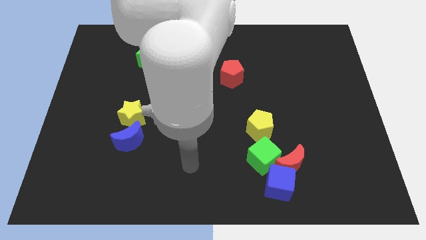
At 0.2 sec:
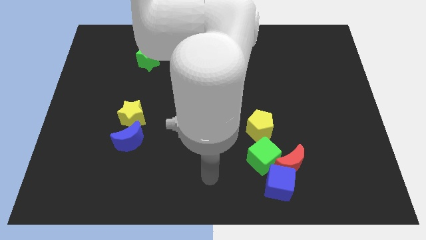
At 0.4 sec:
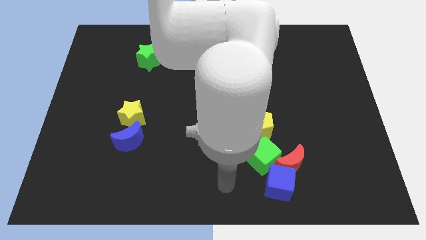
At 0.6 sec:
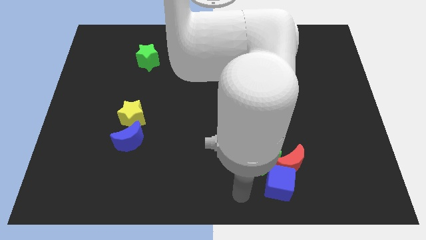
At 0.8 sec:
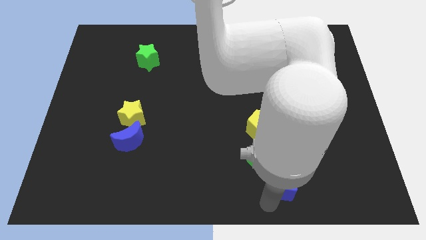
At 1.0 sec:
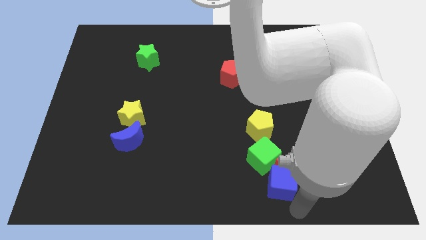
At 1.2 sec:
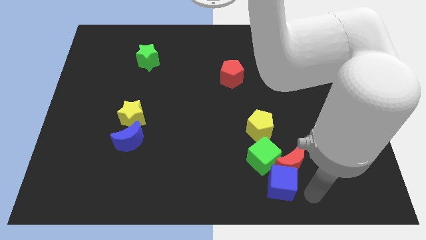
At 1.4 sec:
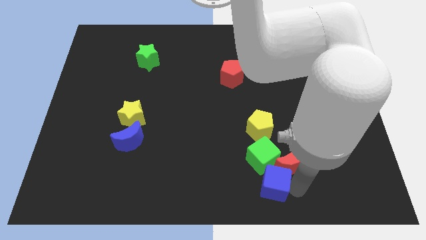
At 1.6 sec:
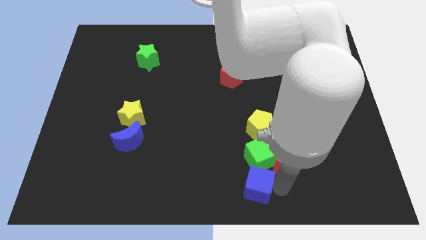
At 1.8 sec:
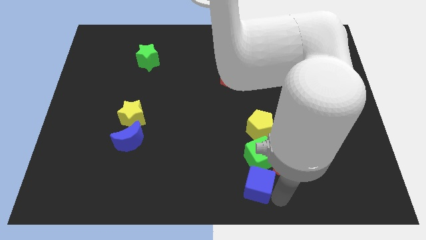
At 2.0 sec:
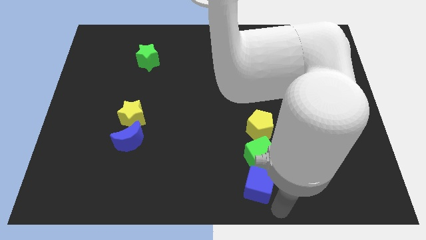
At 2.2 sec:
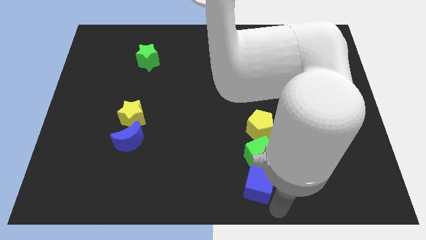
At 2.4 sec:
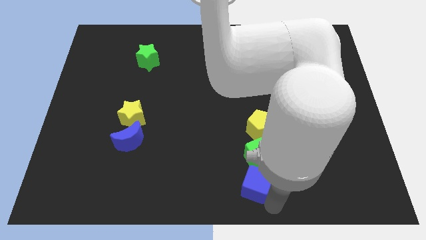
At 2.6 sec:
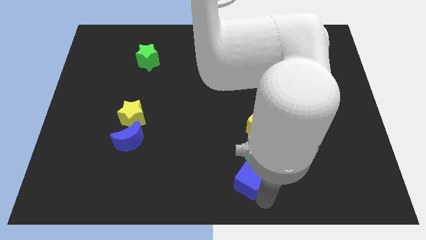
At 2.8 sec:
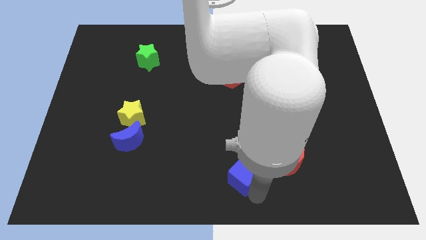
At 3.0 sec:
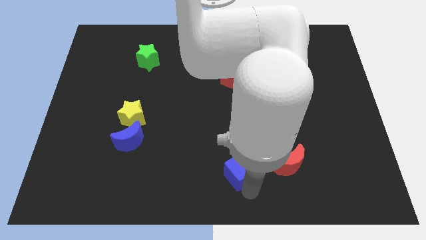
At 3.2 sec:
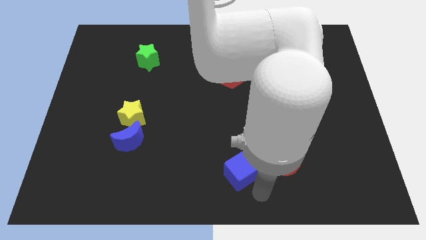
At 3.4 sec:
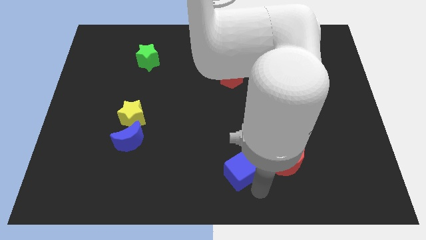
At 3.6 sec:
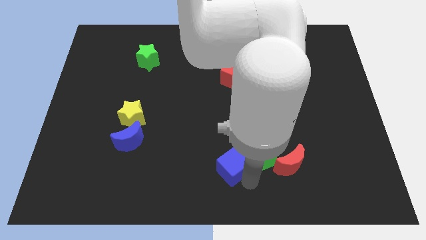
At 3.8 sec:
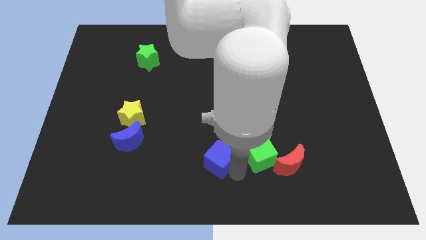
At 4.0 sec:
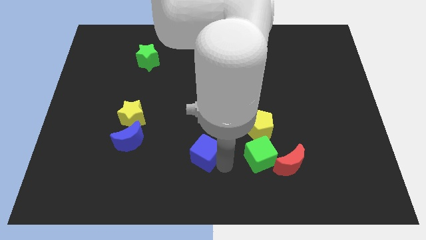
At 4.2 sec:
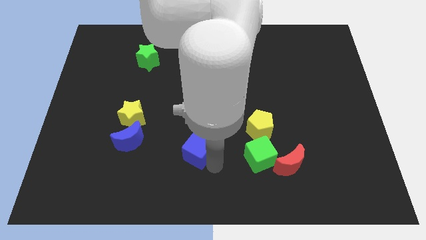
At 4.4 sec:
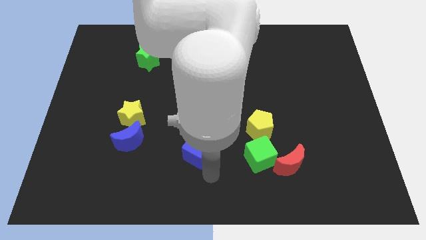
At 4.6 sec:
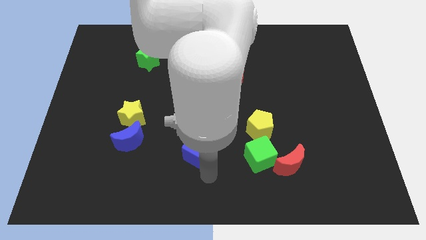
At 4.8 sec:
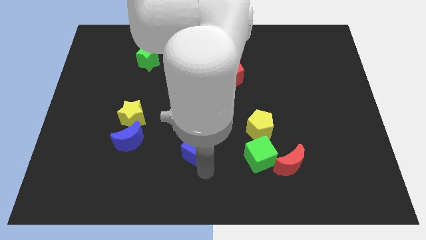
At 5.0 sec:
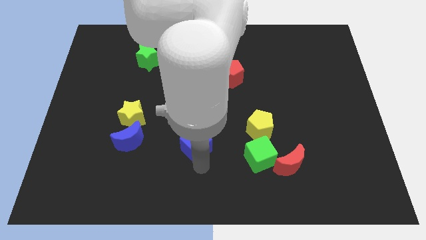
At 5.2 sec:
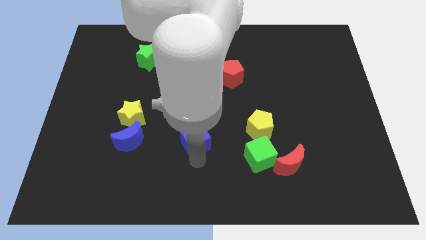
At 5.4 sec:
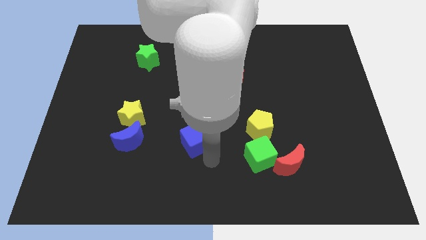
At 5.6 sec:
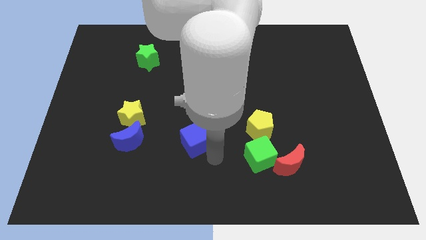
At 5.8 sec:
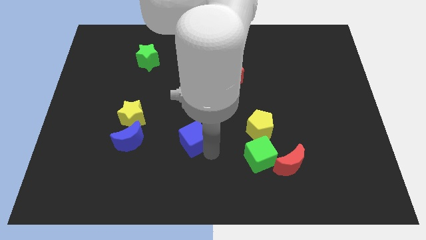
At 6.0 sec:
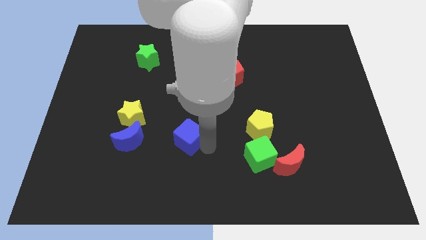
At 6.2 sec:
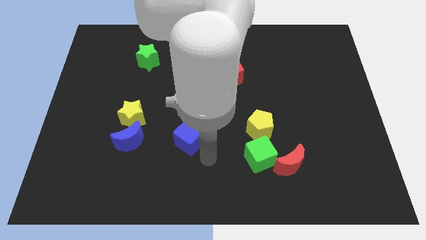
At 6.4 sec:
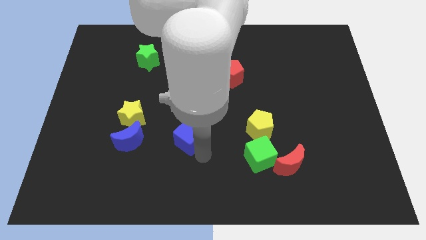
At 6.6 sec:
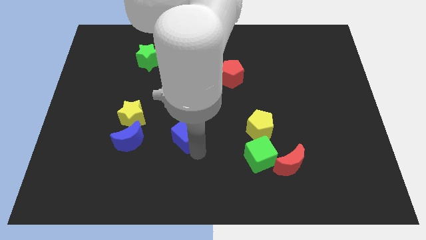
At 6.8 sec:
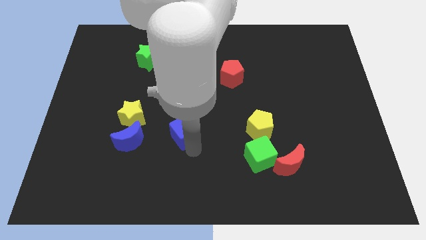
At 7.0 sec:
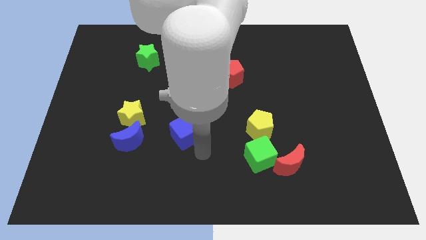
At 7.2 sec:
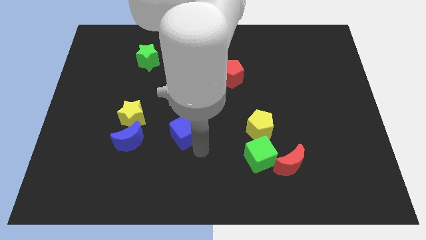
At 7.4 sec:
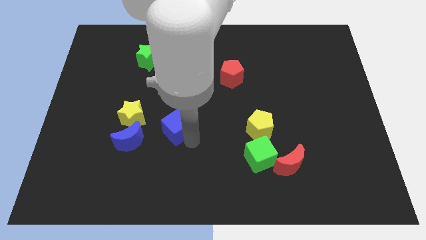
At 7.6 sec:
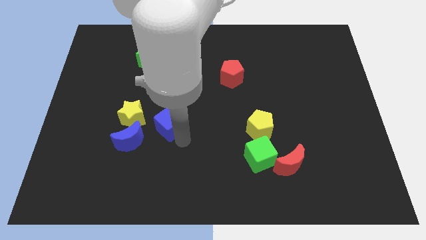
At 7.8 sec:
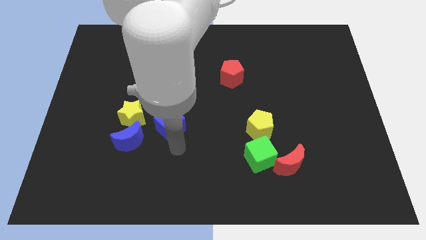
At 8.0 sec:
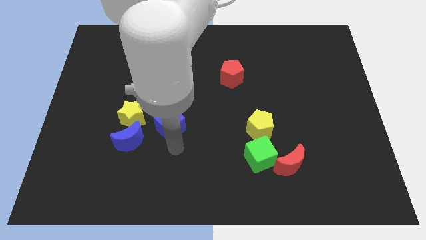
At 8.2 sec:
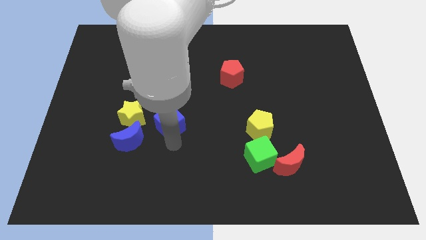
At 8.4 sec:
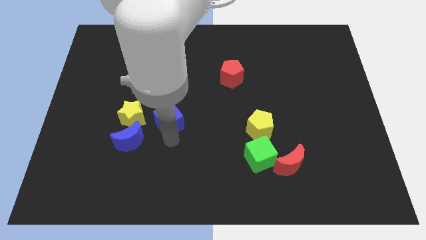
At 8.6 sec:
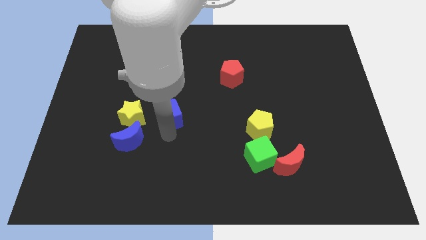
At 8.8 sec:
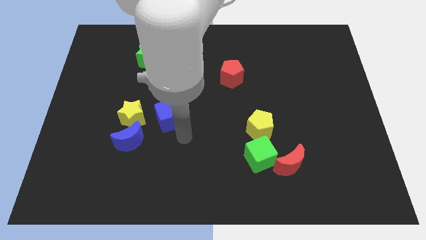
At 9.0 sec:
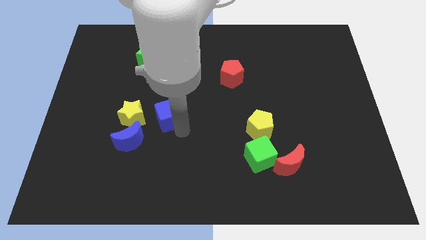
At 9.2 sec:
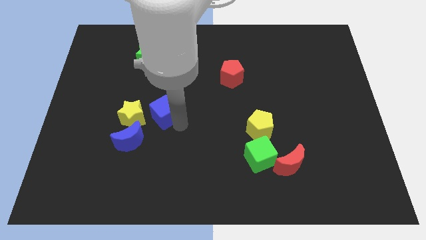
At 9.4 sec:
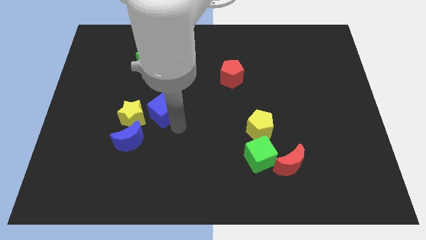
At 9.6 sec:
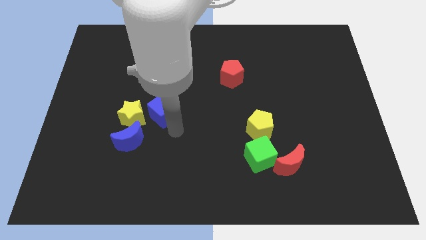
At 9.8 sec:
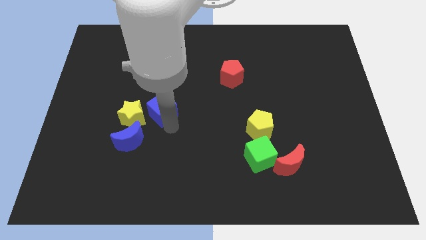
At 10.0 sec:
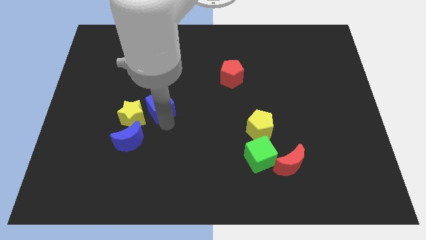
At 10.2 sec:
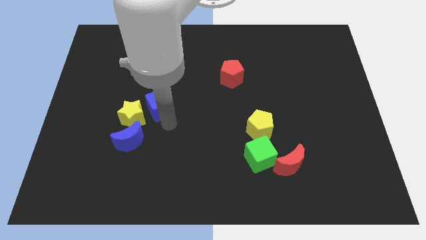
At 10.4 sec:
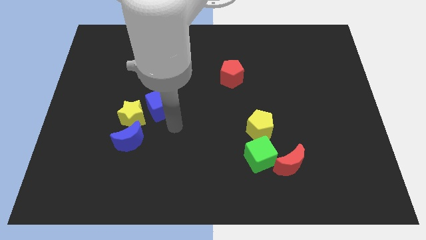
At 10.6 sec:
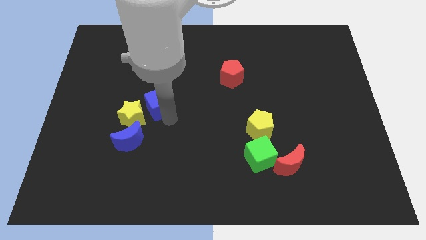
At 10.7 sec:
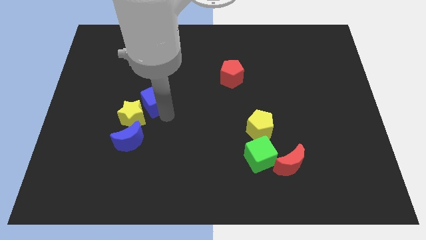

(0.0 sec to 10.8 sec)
push the blue cube to the top side of the blue moon

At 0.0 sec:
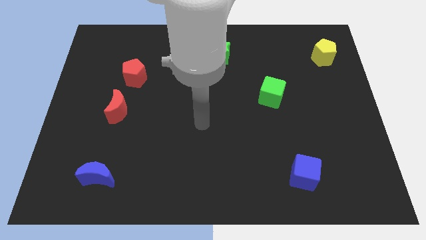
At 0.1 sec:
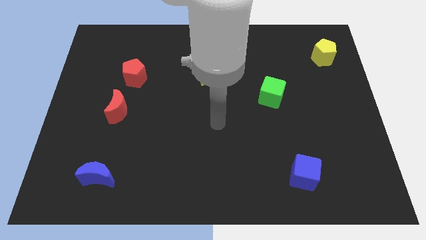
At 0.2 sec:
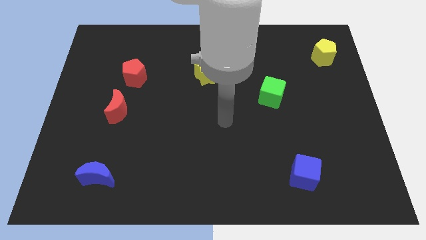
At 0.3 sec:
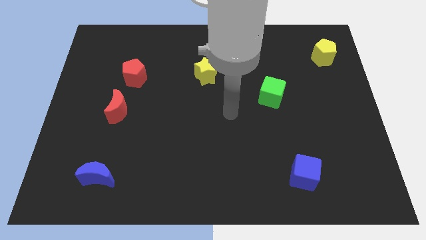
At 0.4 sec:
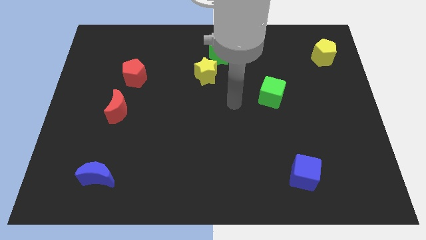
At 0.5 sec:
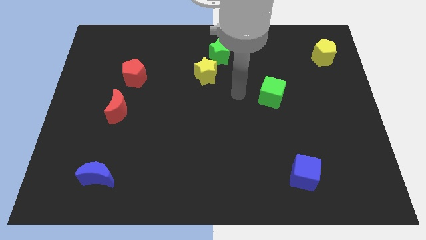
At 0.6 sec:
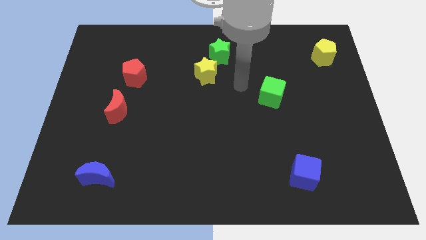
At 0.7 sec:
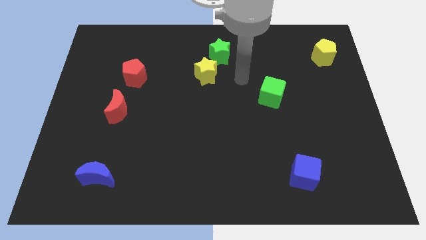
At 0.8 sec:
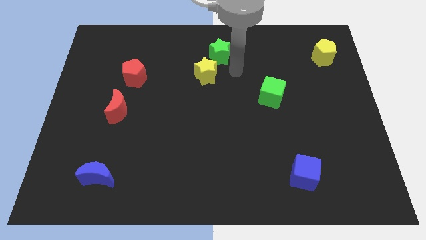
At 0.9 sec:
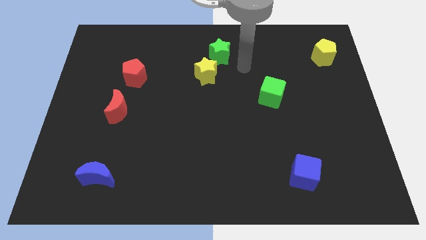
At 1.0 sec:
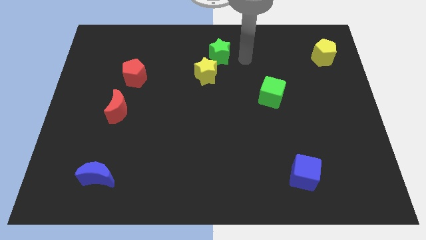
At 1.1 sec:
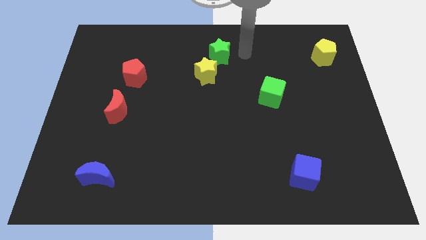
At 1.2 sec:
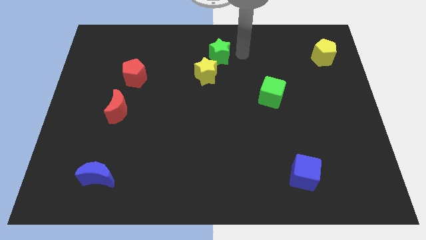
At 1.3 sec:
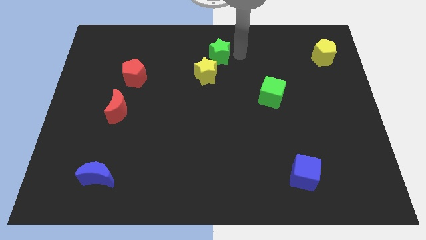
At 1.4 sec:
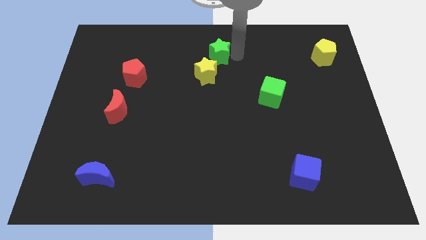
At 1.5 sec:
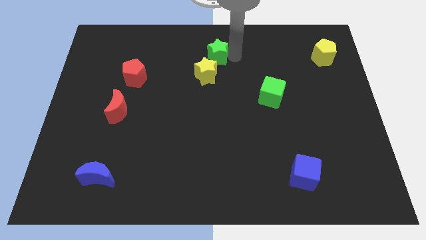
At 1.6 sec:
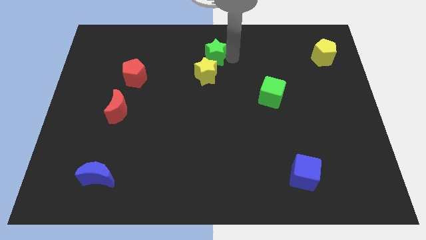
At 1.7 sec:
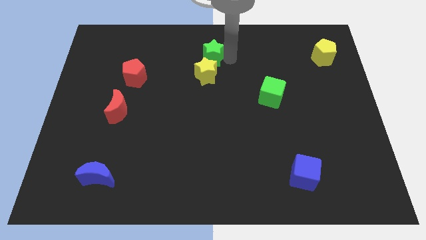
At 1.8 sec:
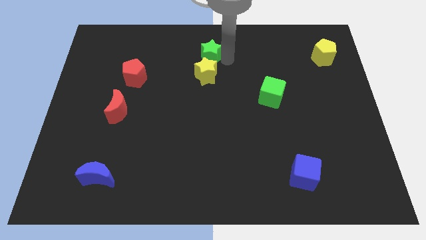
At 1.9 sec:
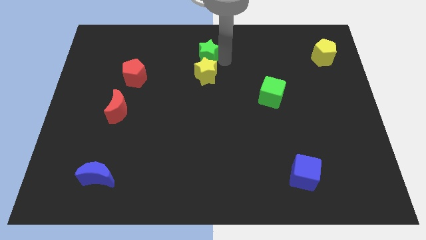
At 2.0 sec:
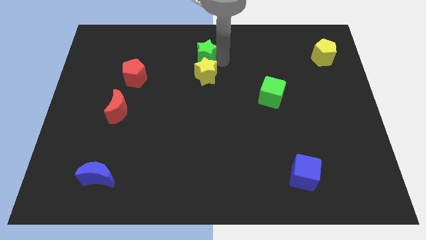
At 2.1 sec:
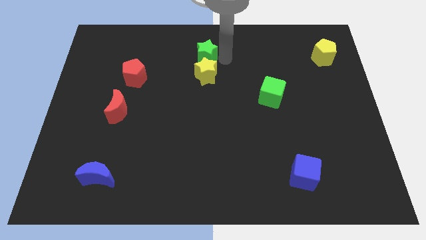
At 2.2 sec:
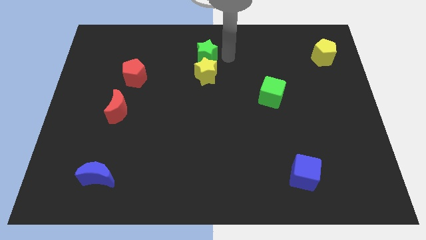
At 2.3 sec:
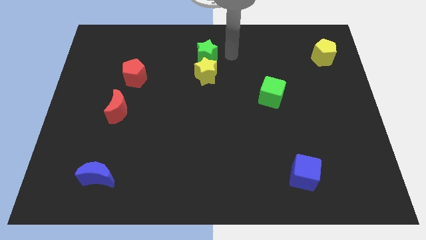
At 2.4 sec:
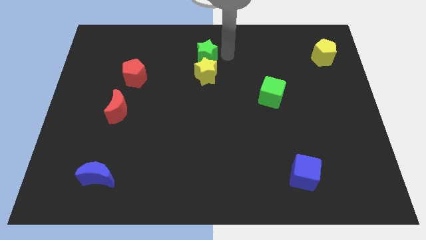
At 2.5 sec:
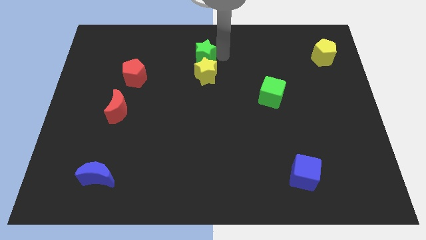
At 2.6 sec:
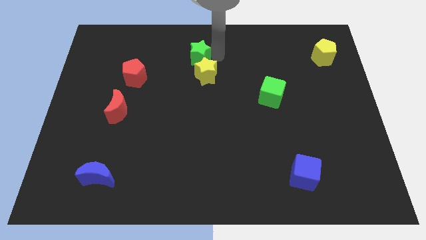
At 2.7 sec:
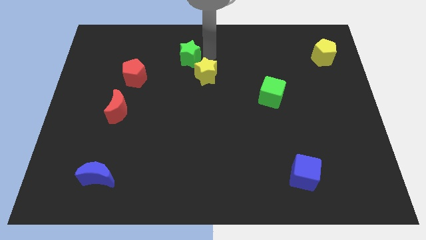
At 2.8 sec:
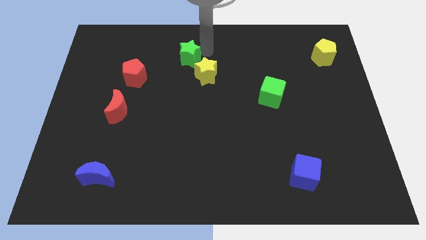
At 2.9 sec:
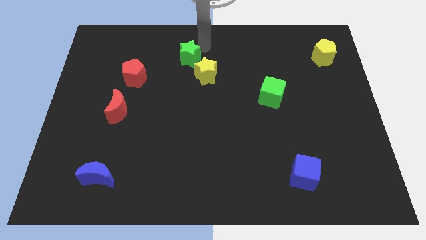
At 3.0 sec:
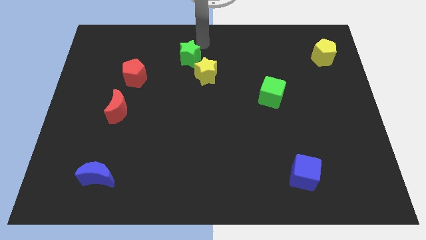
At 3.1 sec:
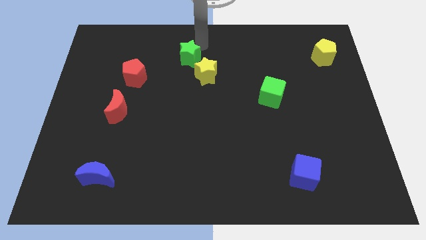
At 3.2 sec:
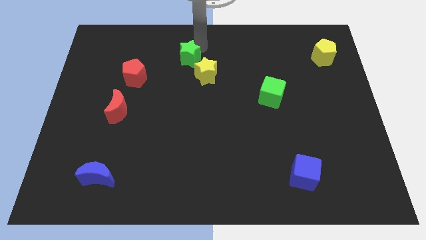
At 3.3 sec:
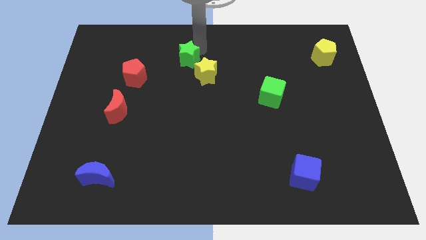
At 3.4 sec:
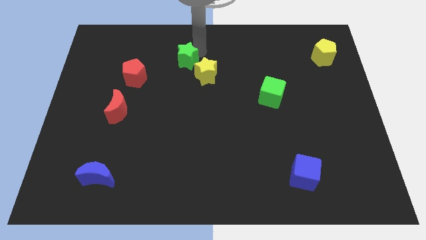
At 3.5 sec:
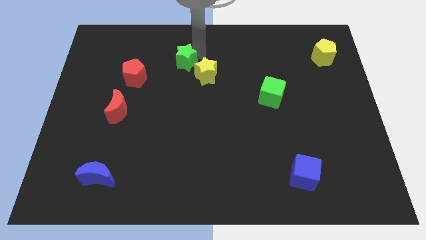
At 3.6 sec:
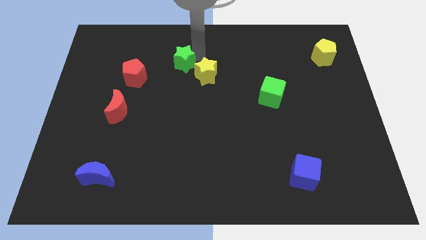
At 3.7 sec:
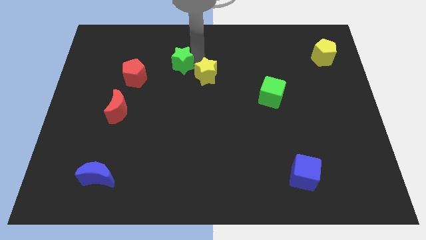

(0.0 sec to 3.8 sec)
slide the green star right of the red pentagon
